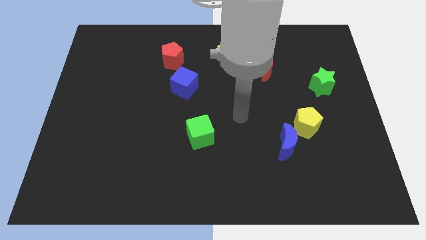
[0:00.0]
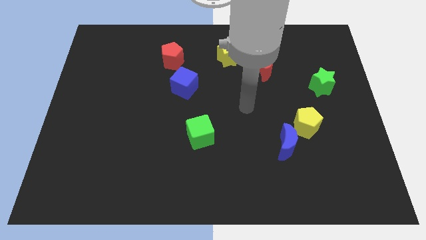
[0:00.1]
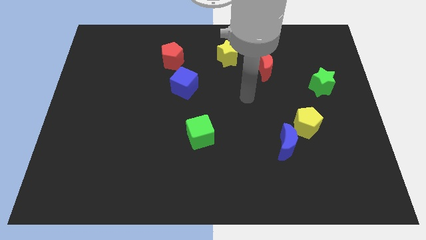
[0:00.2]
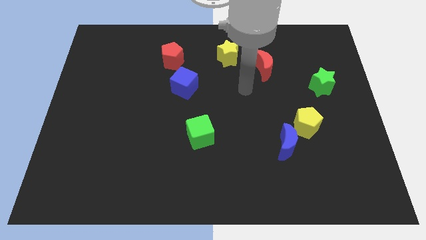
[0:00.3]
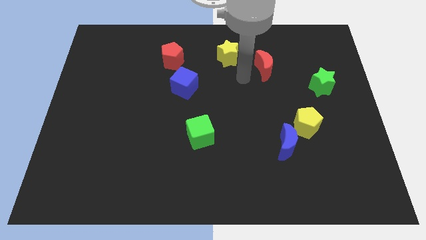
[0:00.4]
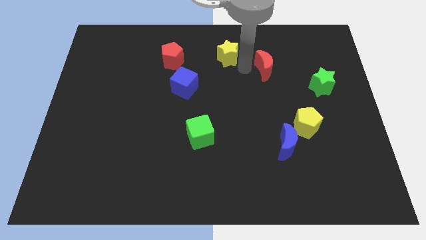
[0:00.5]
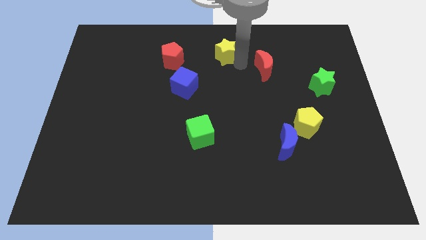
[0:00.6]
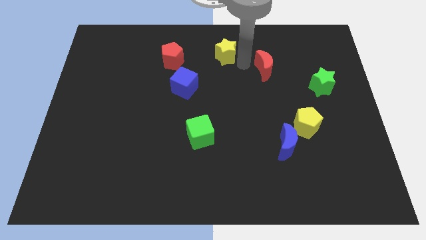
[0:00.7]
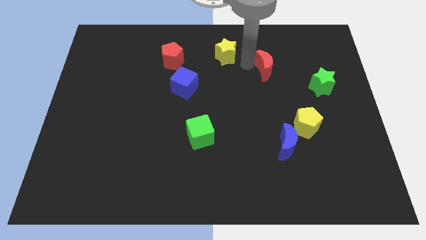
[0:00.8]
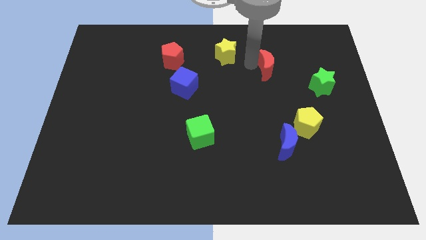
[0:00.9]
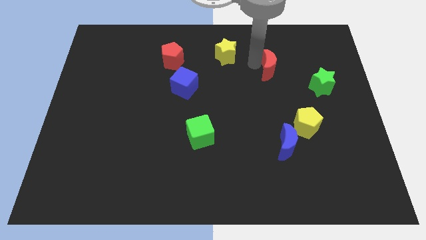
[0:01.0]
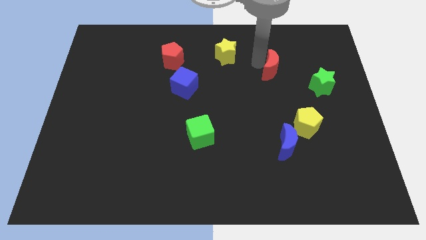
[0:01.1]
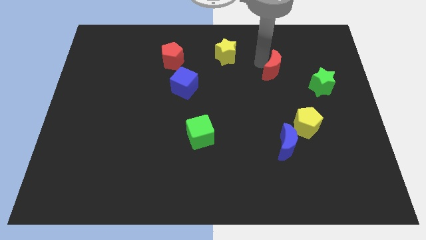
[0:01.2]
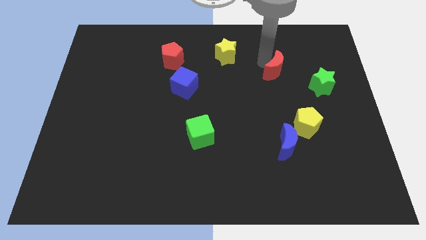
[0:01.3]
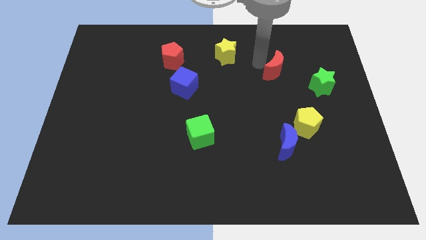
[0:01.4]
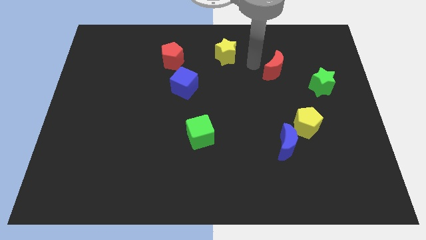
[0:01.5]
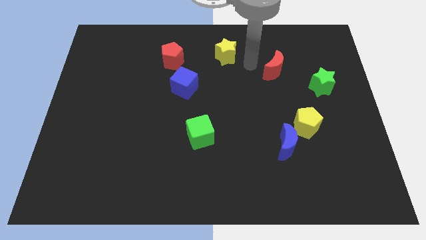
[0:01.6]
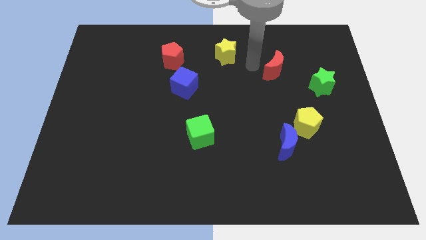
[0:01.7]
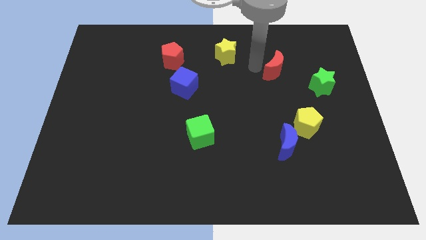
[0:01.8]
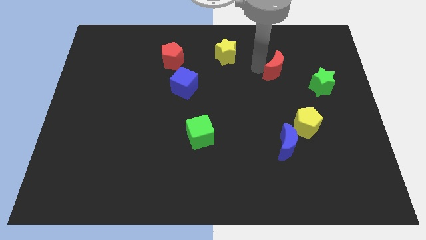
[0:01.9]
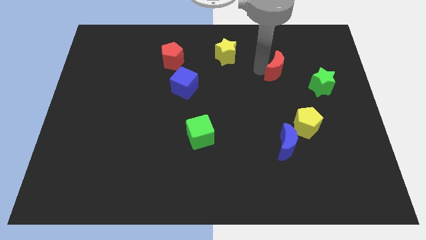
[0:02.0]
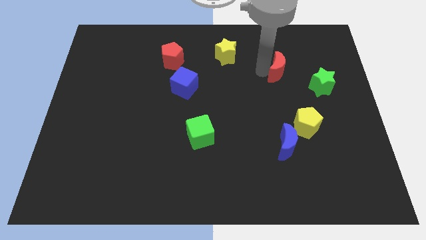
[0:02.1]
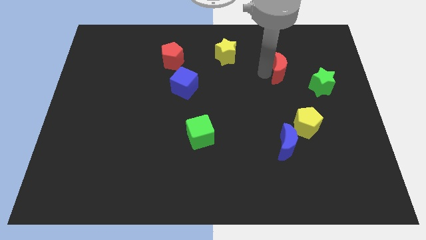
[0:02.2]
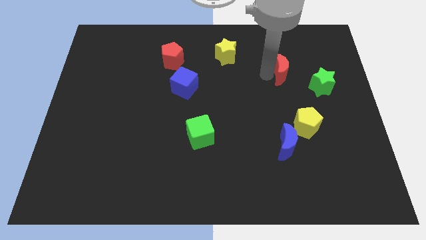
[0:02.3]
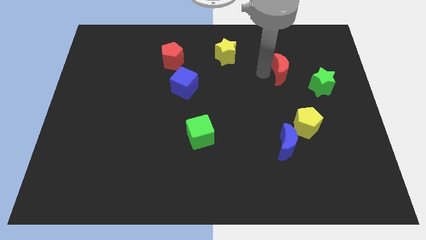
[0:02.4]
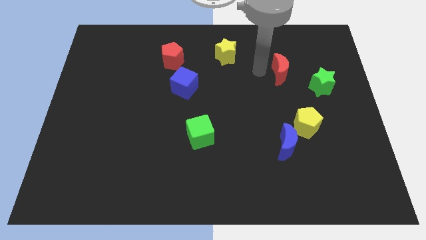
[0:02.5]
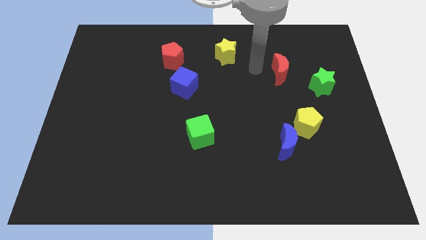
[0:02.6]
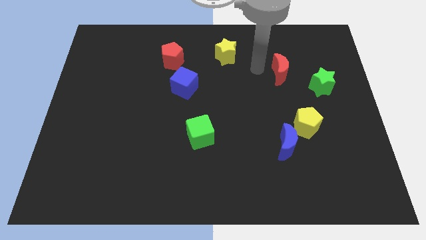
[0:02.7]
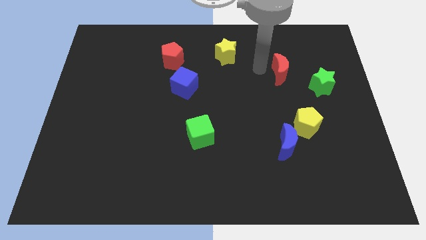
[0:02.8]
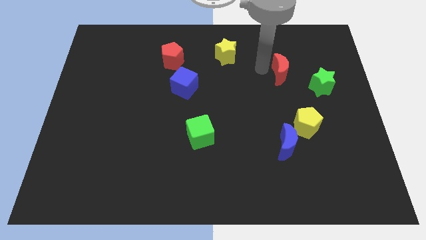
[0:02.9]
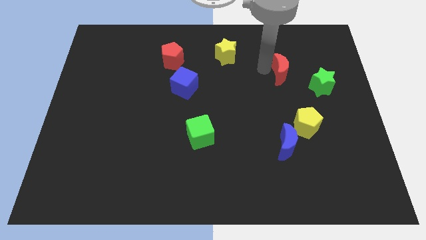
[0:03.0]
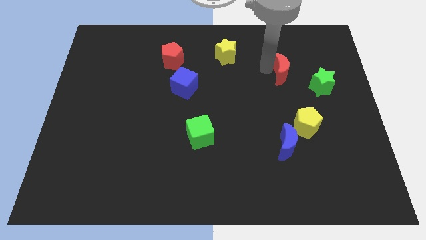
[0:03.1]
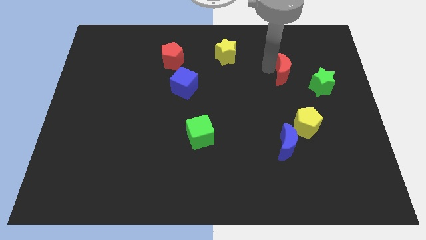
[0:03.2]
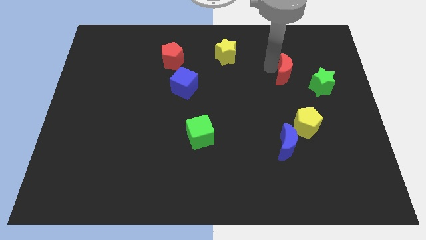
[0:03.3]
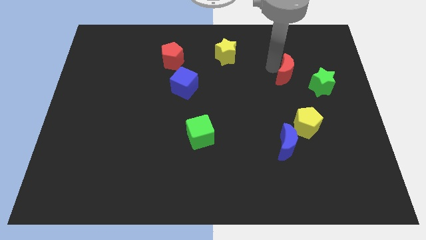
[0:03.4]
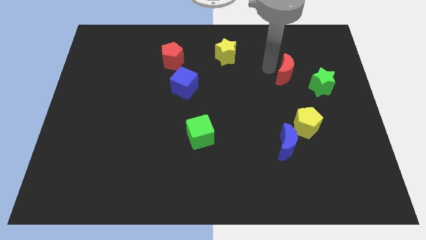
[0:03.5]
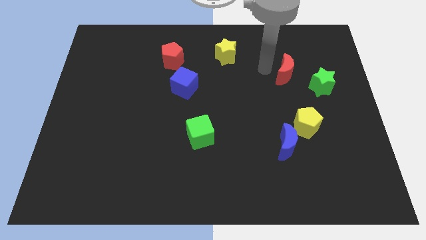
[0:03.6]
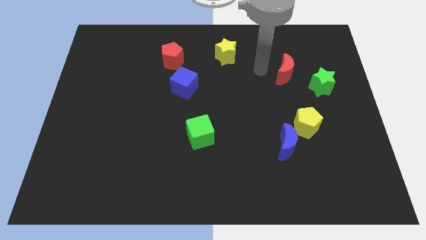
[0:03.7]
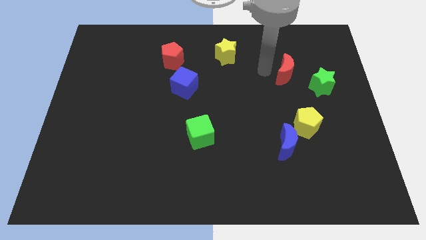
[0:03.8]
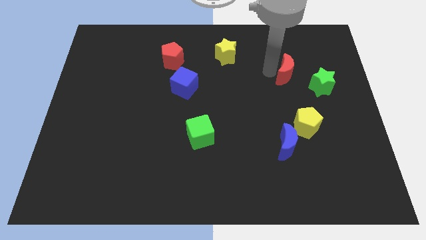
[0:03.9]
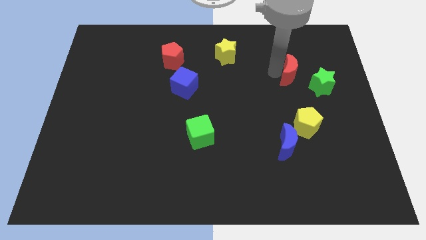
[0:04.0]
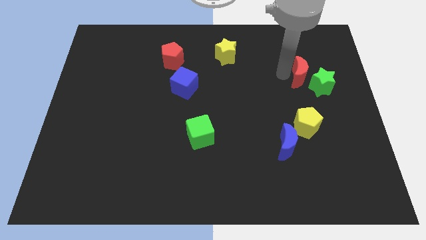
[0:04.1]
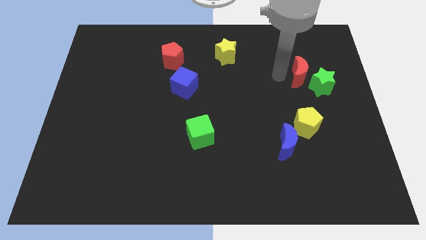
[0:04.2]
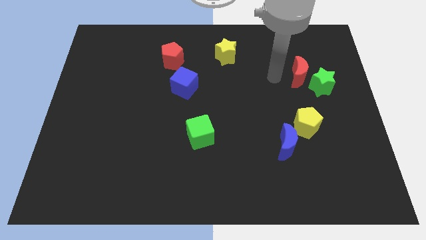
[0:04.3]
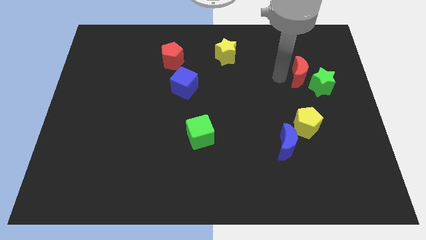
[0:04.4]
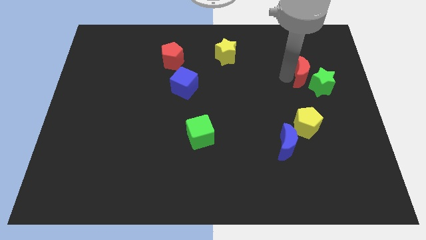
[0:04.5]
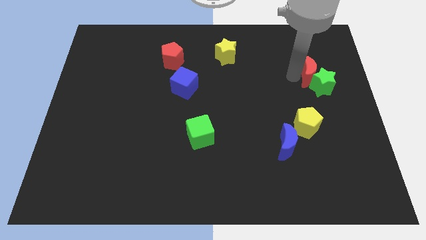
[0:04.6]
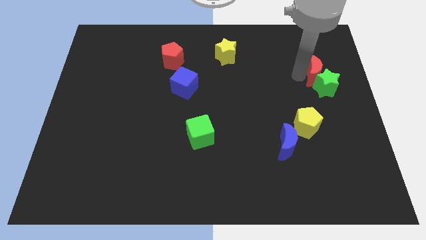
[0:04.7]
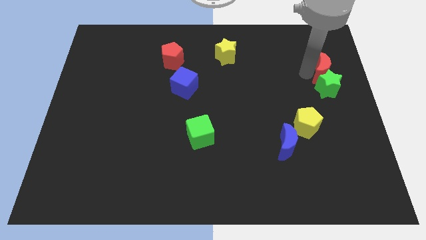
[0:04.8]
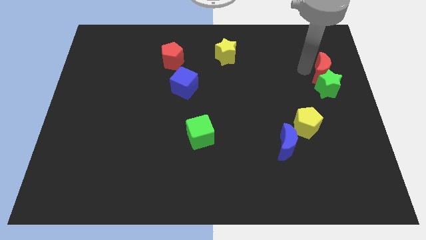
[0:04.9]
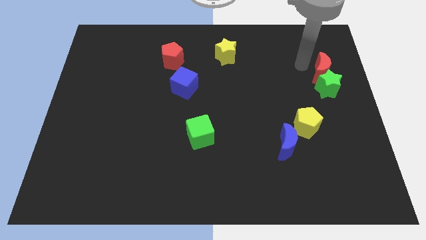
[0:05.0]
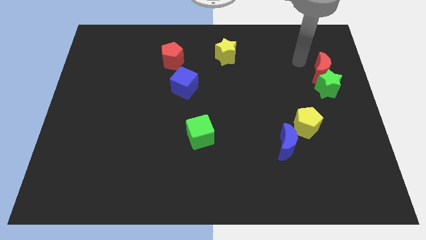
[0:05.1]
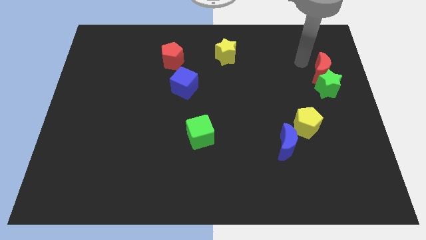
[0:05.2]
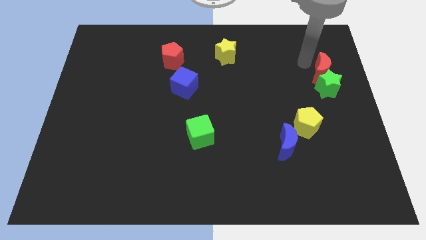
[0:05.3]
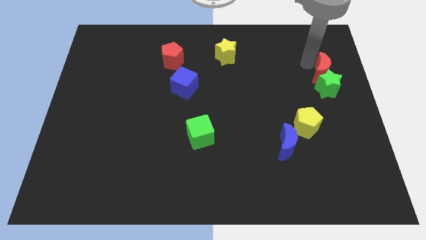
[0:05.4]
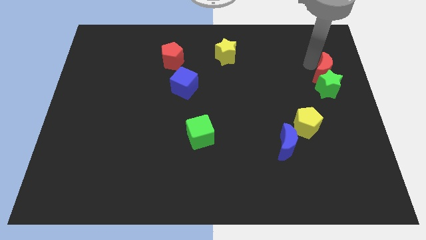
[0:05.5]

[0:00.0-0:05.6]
push the red moon to the right side of the board

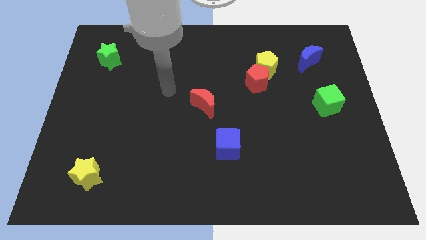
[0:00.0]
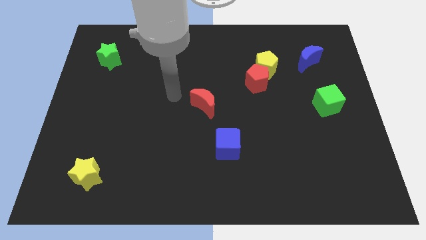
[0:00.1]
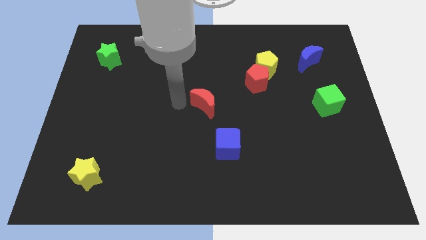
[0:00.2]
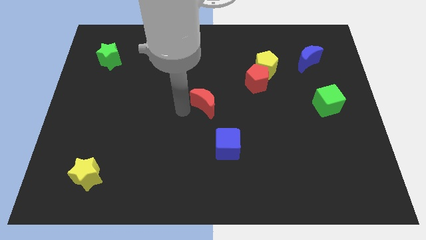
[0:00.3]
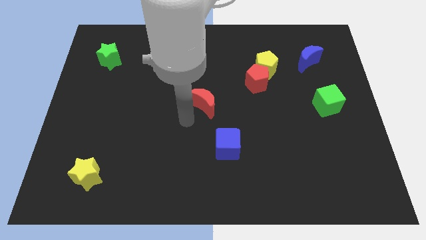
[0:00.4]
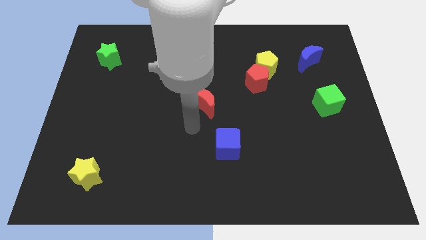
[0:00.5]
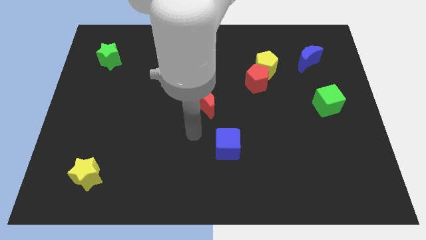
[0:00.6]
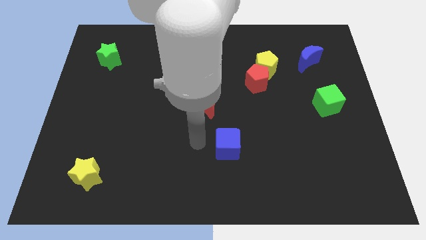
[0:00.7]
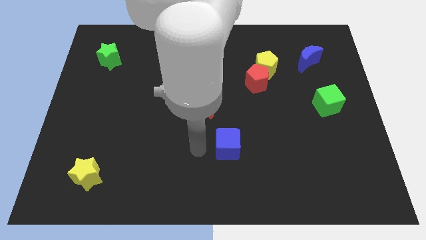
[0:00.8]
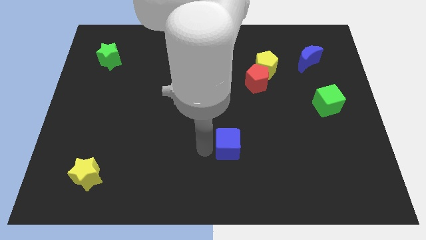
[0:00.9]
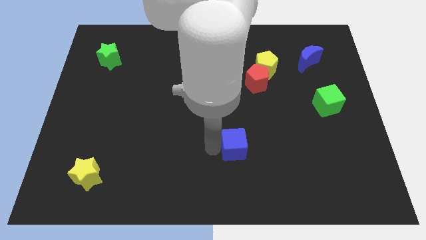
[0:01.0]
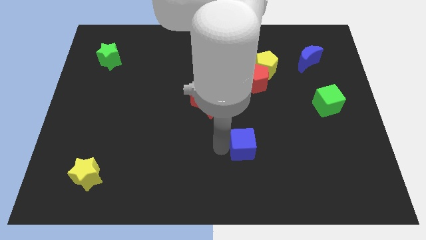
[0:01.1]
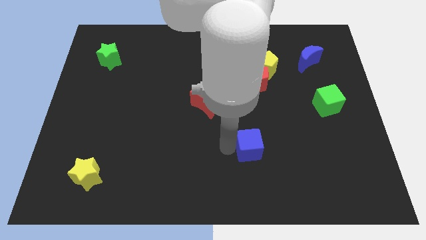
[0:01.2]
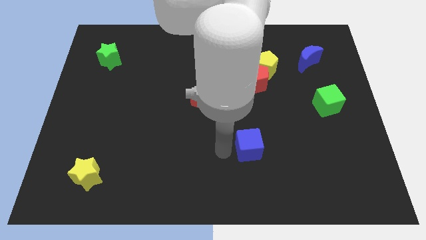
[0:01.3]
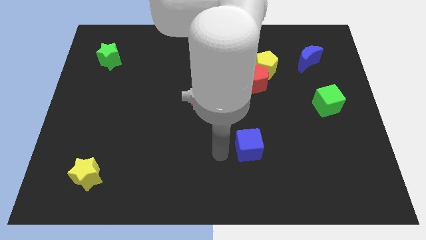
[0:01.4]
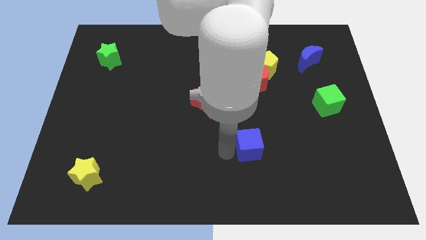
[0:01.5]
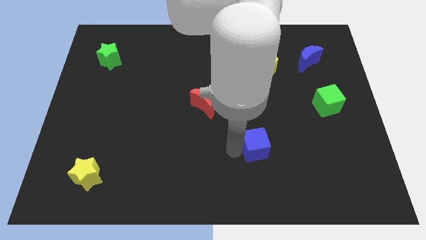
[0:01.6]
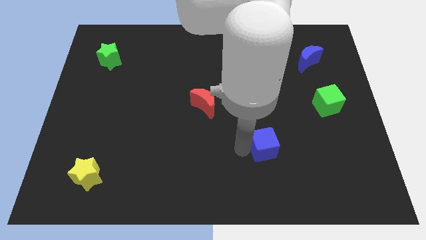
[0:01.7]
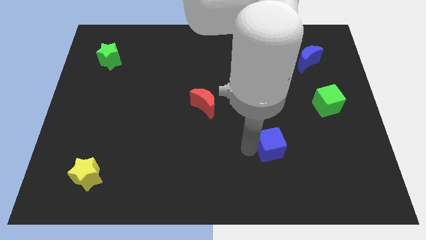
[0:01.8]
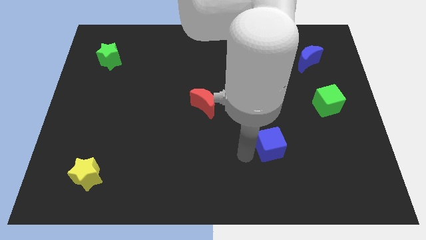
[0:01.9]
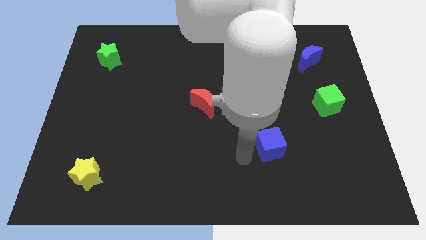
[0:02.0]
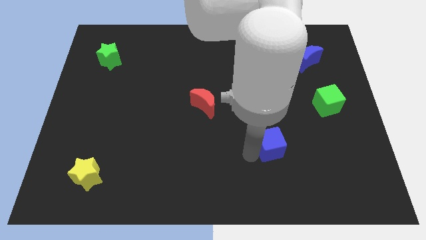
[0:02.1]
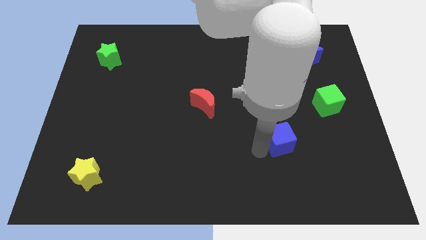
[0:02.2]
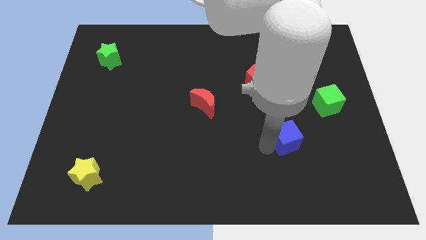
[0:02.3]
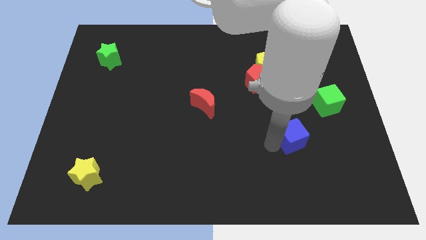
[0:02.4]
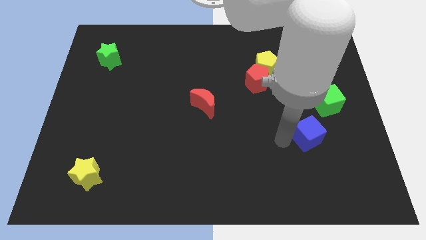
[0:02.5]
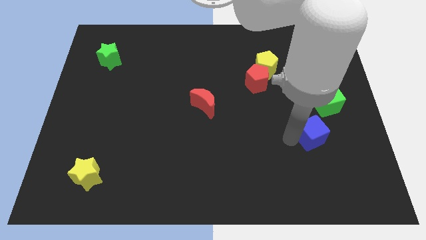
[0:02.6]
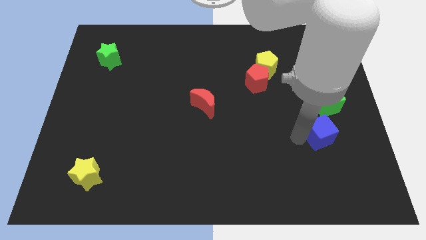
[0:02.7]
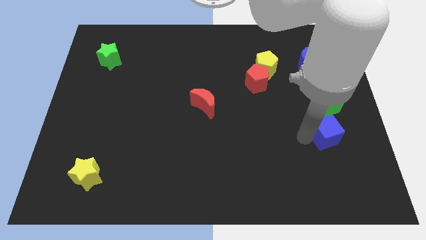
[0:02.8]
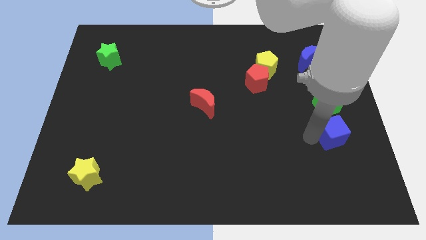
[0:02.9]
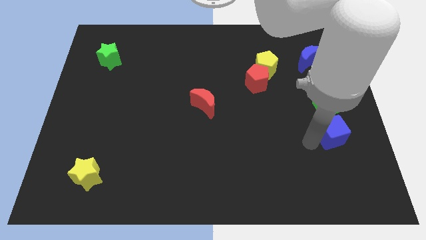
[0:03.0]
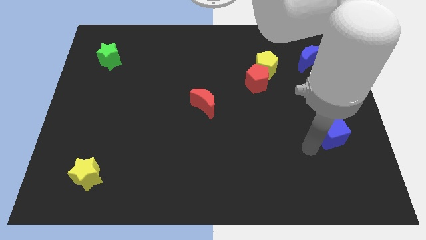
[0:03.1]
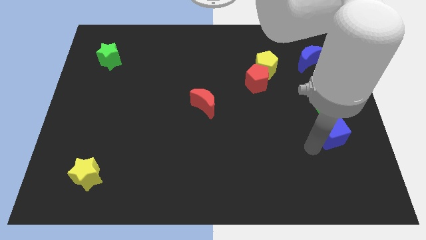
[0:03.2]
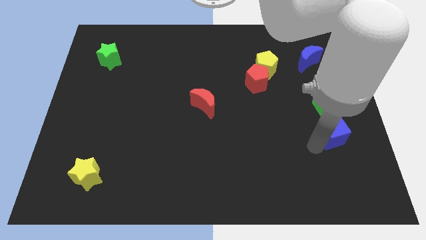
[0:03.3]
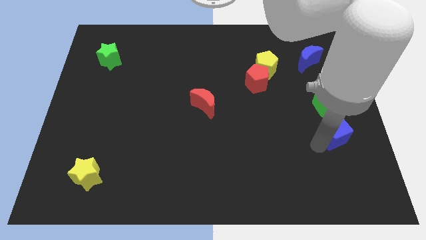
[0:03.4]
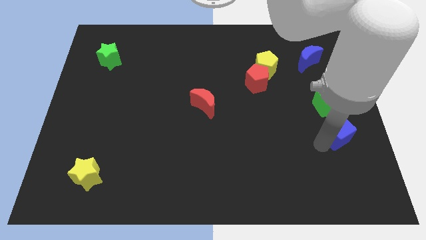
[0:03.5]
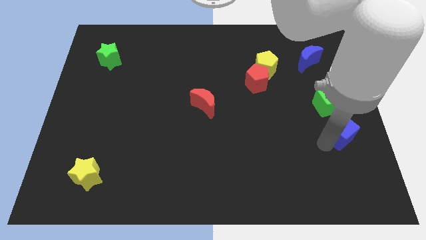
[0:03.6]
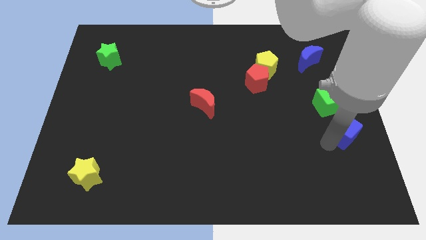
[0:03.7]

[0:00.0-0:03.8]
push the blue cube to the right side of the board
